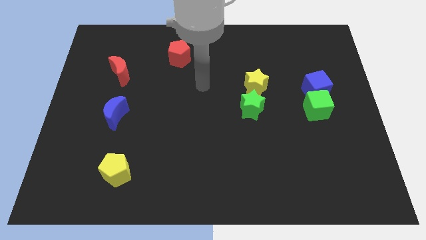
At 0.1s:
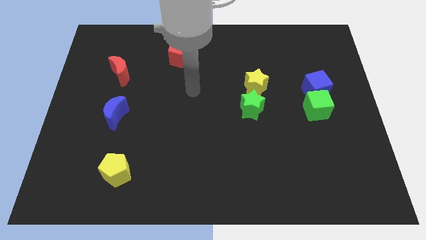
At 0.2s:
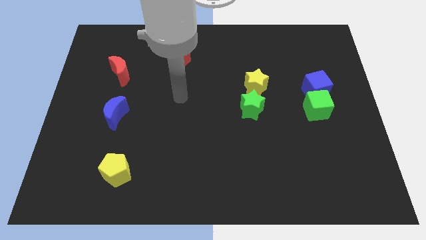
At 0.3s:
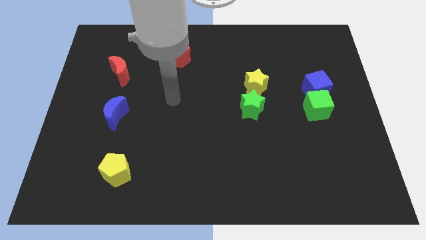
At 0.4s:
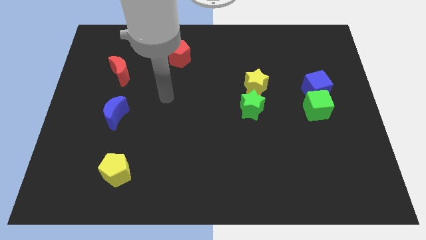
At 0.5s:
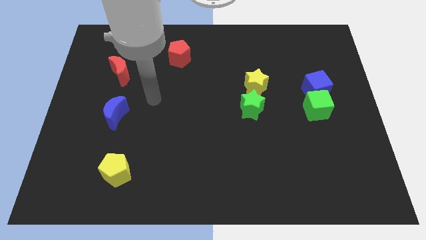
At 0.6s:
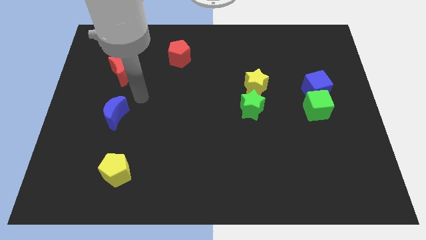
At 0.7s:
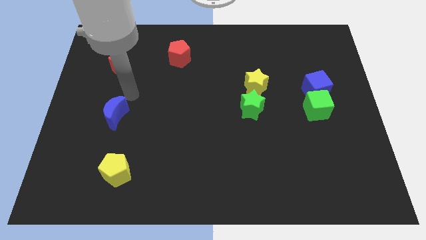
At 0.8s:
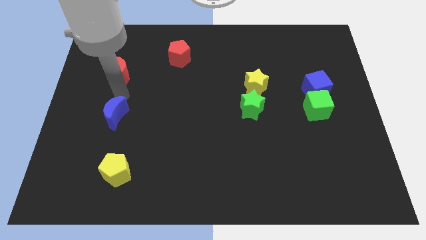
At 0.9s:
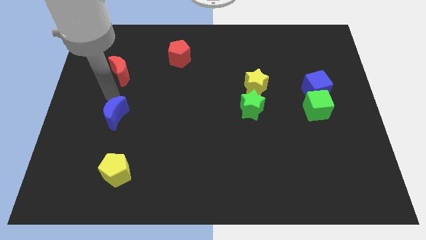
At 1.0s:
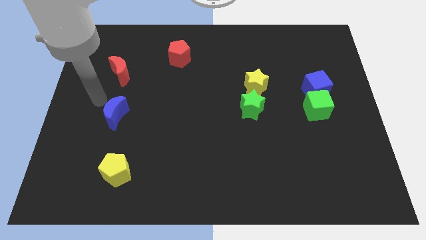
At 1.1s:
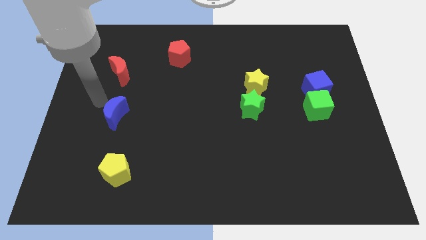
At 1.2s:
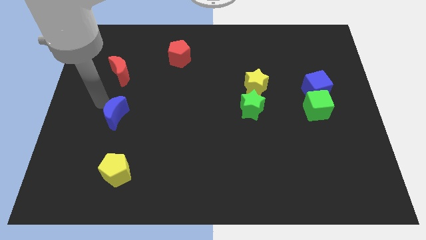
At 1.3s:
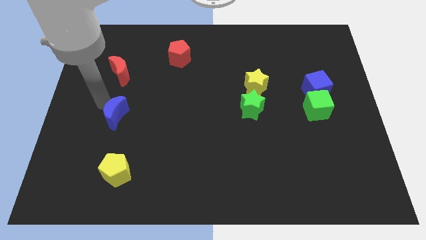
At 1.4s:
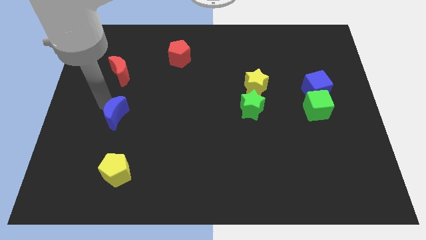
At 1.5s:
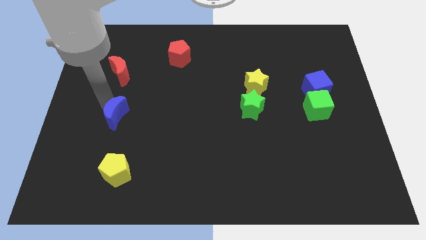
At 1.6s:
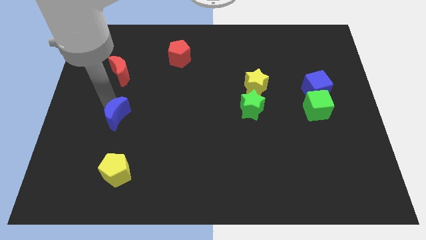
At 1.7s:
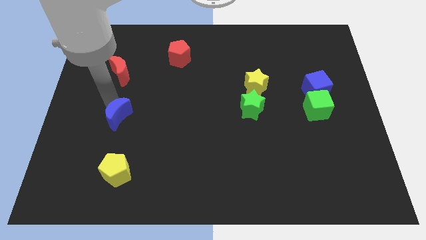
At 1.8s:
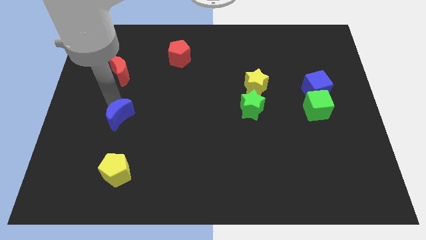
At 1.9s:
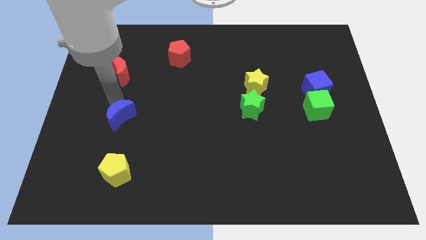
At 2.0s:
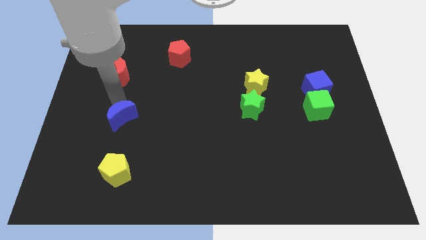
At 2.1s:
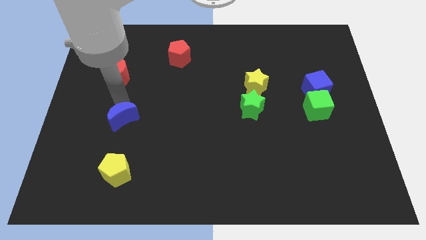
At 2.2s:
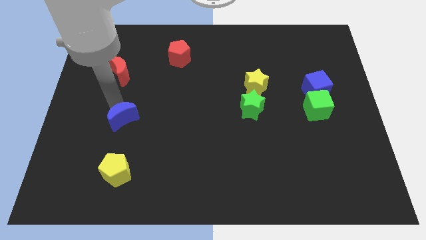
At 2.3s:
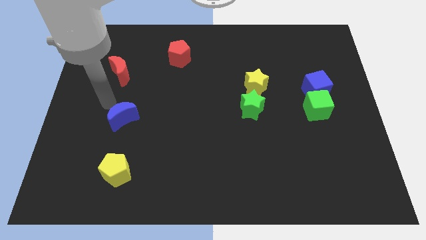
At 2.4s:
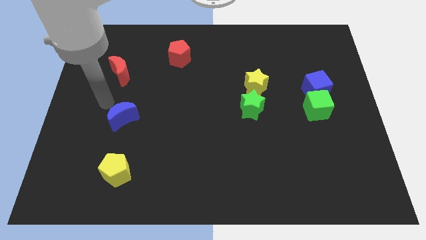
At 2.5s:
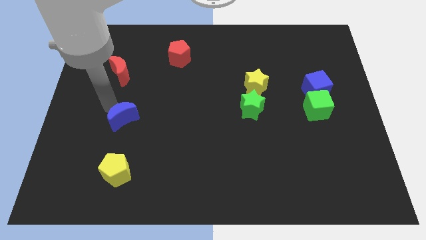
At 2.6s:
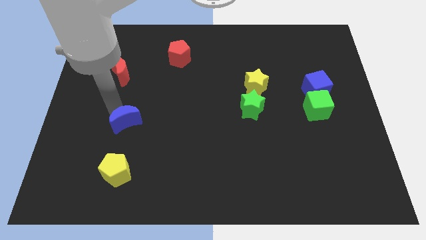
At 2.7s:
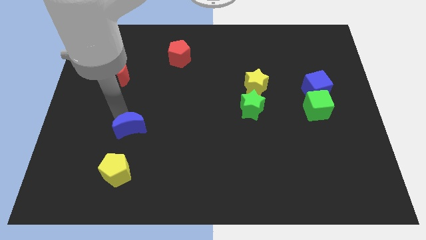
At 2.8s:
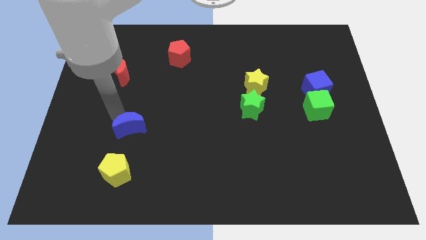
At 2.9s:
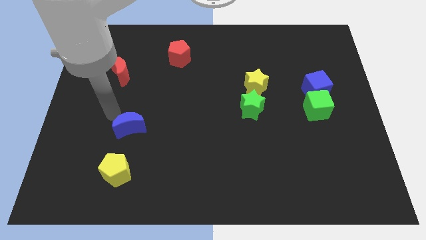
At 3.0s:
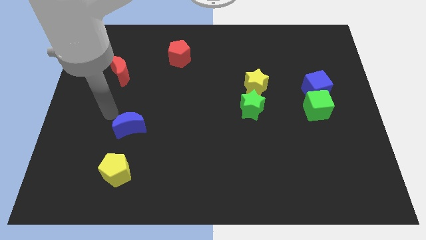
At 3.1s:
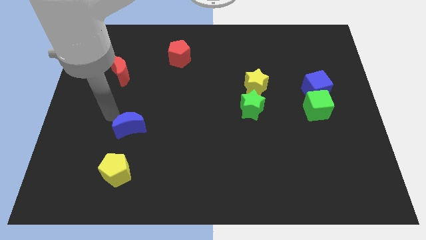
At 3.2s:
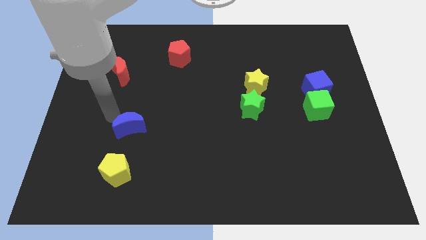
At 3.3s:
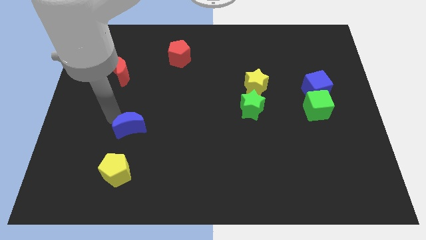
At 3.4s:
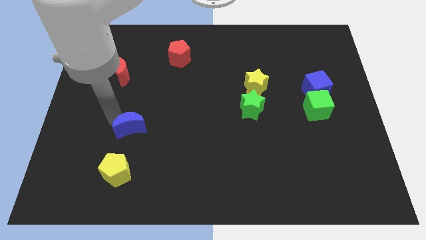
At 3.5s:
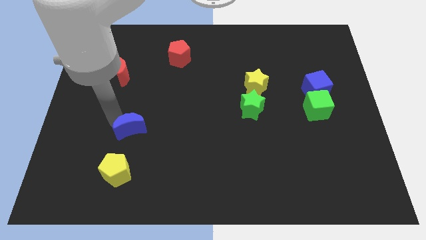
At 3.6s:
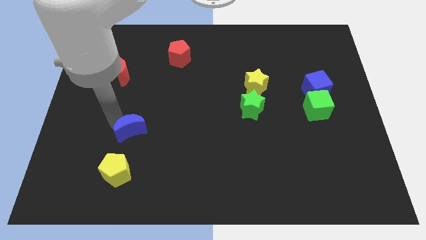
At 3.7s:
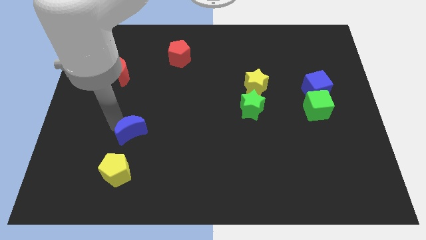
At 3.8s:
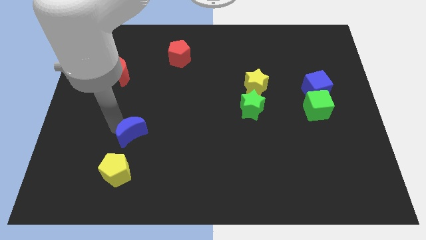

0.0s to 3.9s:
slightly slide the blue moon downwards and right

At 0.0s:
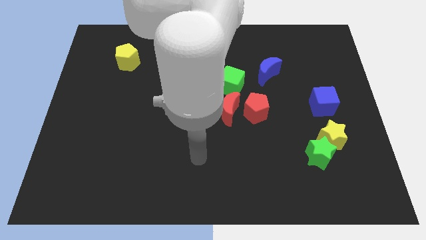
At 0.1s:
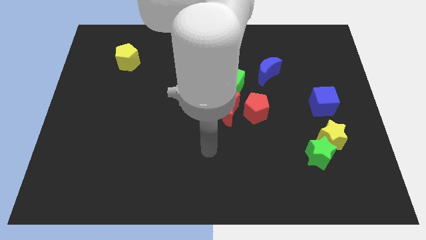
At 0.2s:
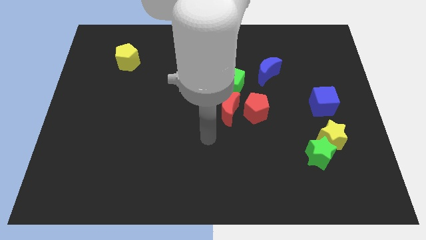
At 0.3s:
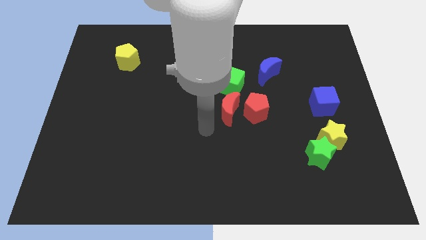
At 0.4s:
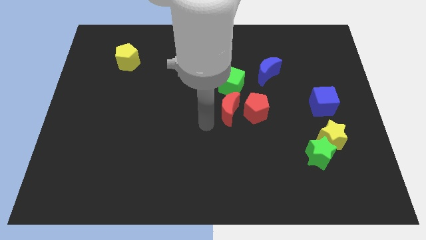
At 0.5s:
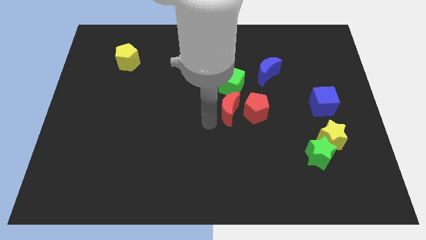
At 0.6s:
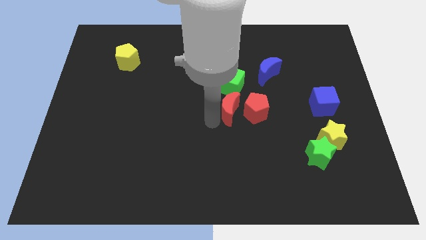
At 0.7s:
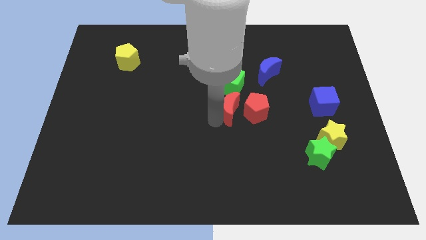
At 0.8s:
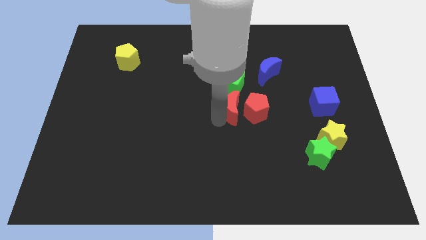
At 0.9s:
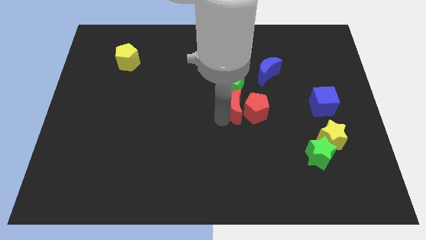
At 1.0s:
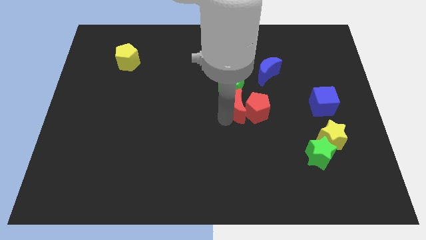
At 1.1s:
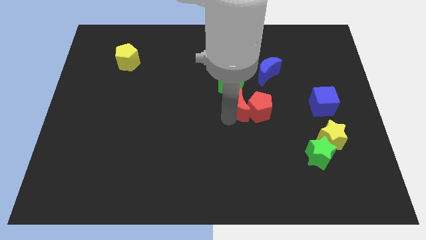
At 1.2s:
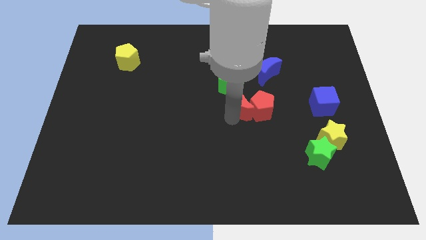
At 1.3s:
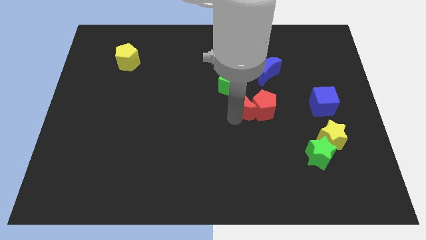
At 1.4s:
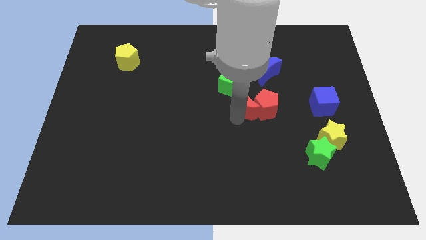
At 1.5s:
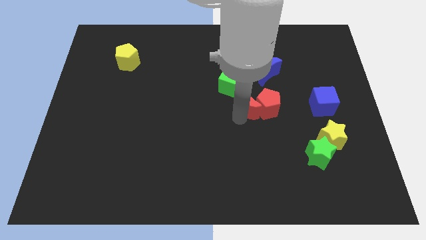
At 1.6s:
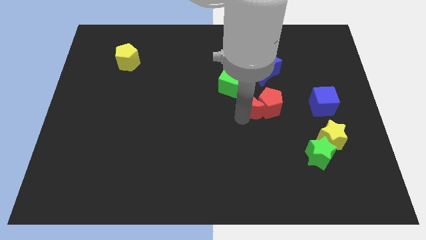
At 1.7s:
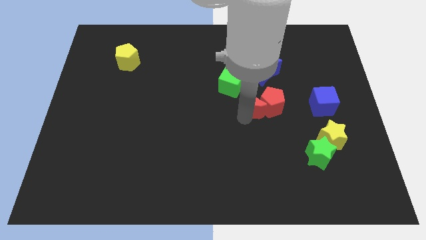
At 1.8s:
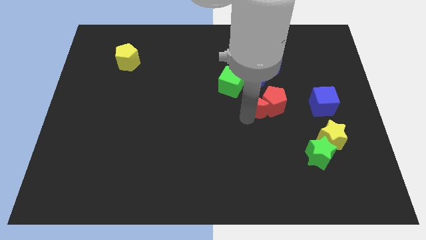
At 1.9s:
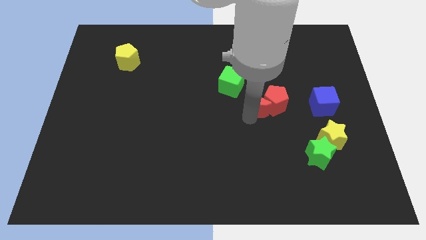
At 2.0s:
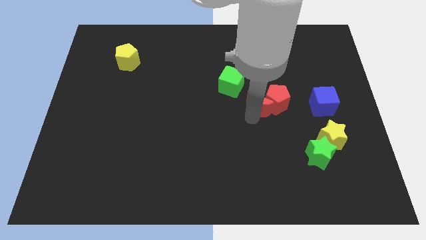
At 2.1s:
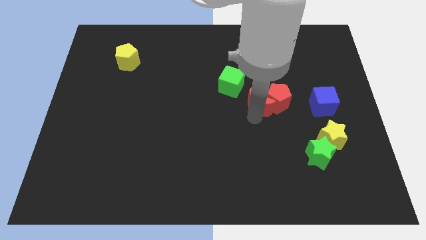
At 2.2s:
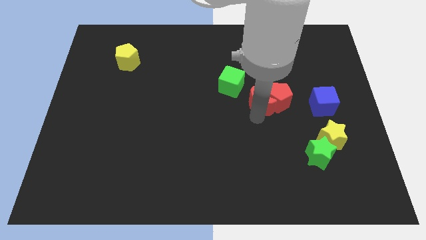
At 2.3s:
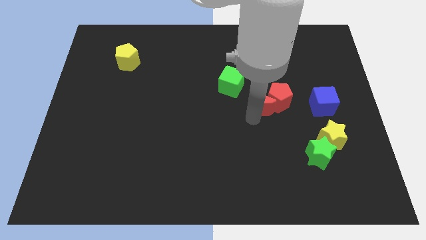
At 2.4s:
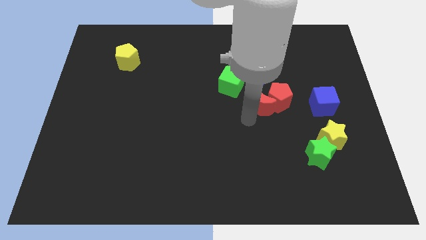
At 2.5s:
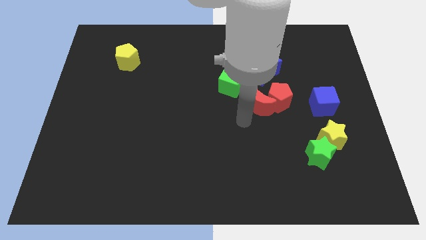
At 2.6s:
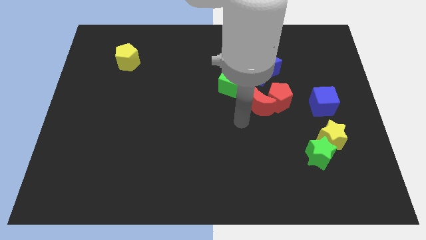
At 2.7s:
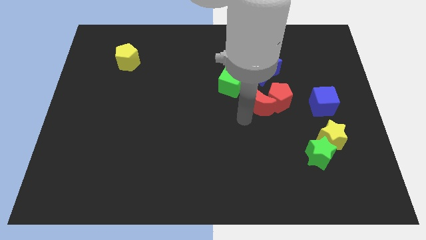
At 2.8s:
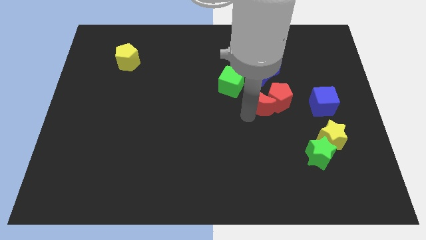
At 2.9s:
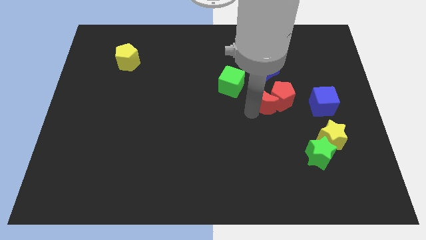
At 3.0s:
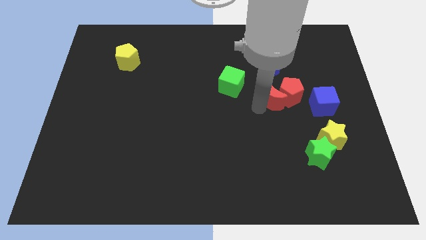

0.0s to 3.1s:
move the red moon a little upwards and right diagonally

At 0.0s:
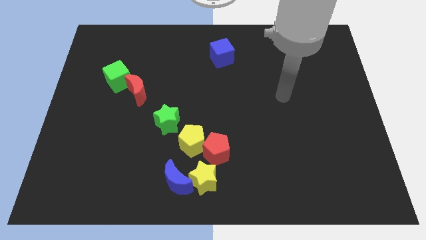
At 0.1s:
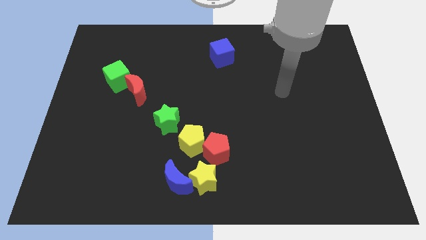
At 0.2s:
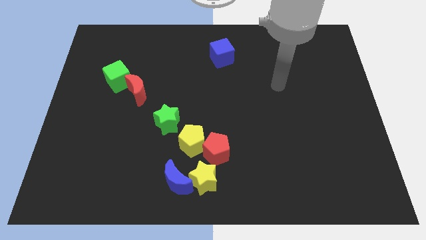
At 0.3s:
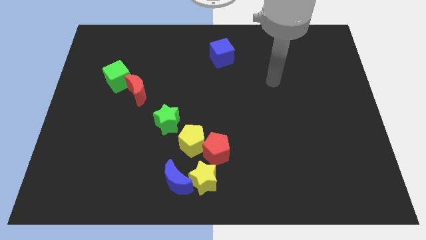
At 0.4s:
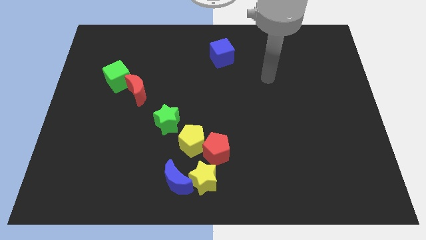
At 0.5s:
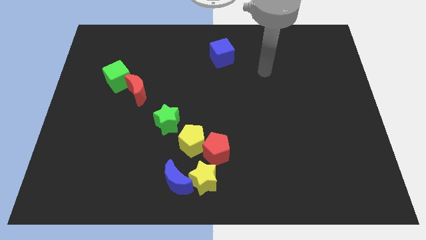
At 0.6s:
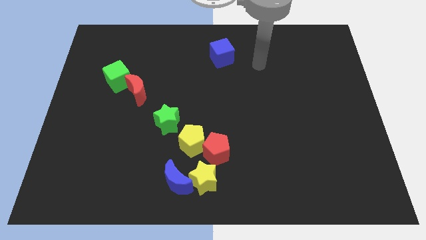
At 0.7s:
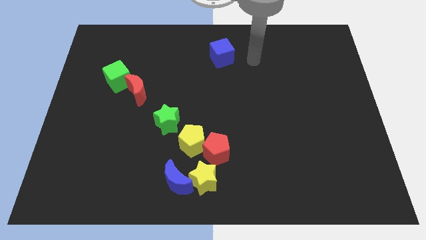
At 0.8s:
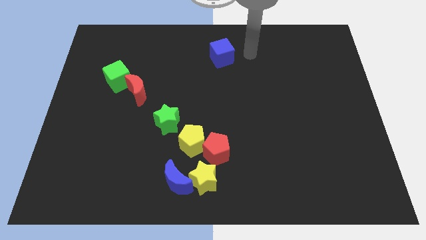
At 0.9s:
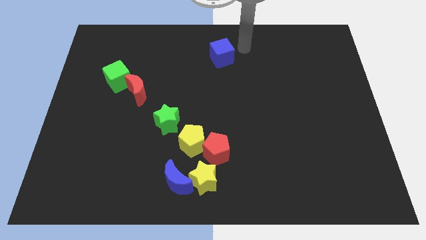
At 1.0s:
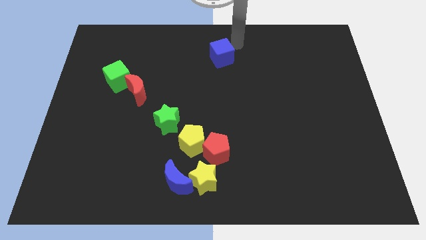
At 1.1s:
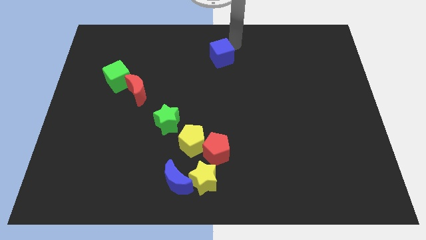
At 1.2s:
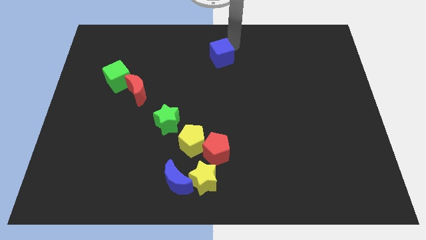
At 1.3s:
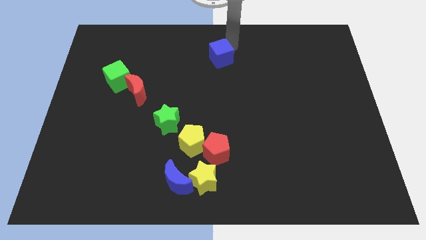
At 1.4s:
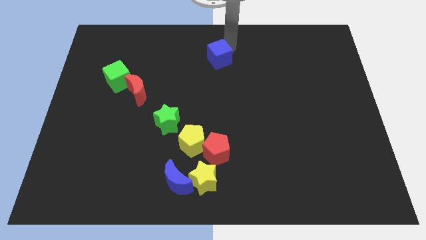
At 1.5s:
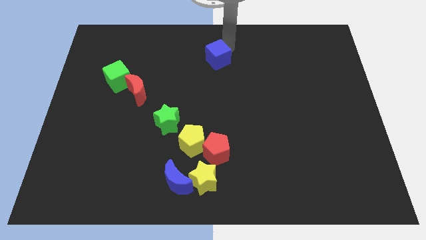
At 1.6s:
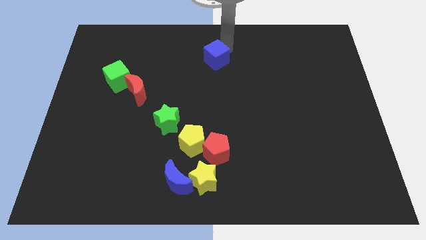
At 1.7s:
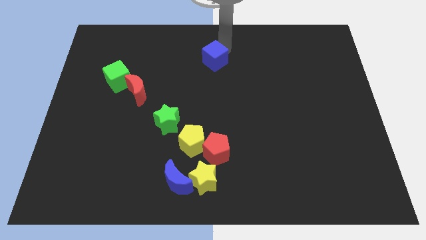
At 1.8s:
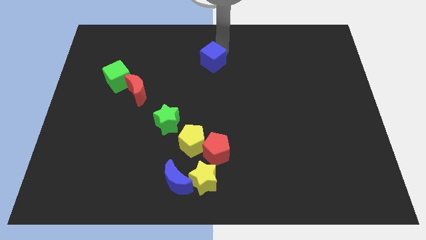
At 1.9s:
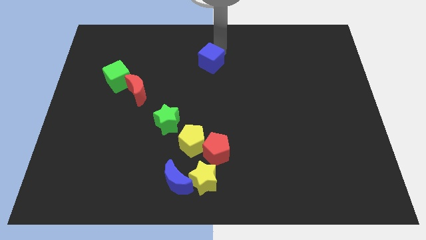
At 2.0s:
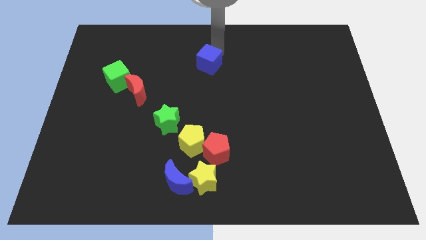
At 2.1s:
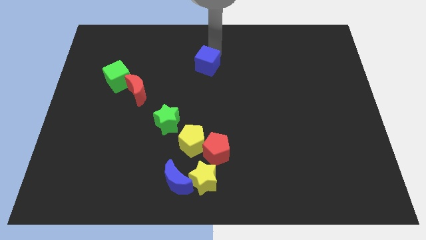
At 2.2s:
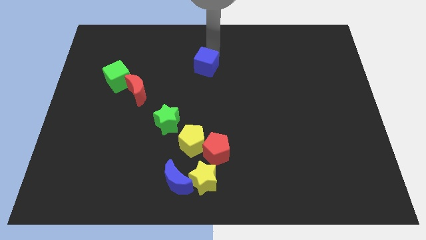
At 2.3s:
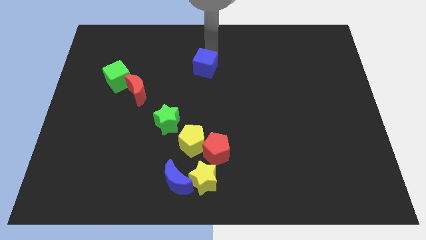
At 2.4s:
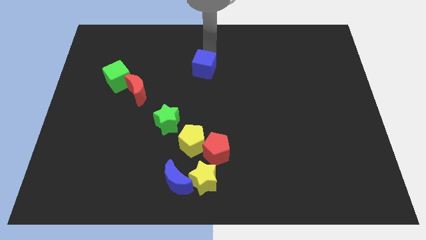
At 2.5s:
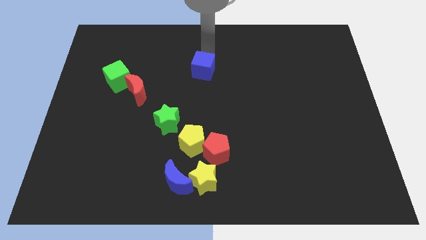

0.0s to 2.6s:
slightly slide the blue cube diagonally down and left
